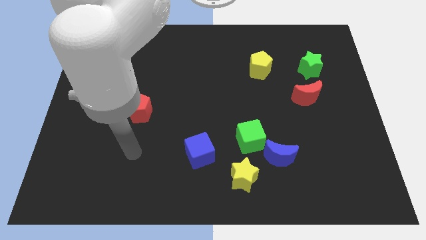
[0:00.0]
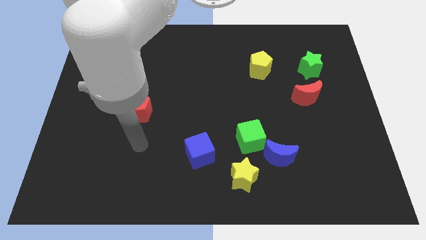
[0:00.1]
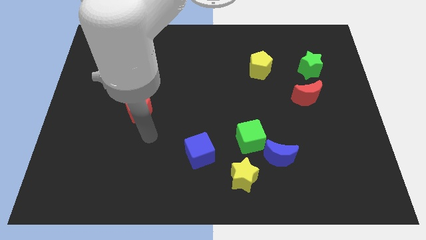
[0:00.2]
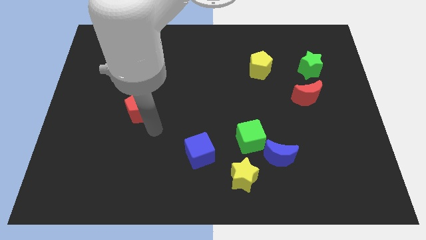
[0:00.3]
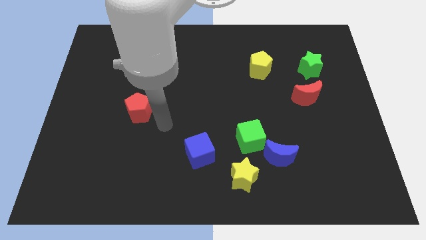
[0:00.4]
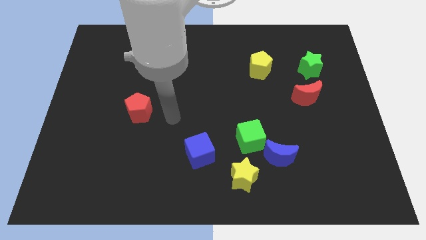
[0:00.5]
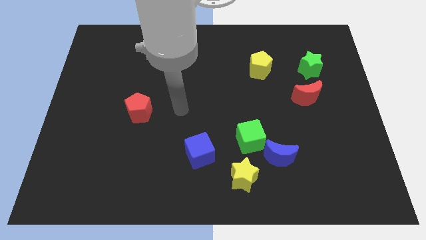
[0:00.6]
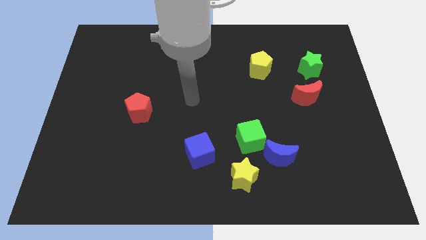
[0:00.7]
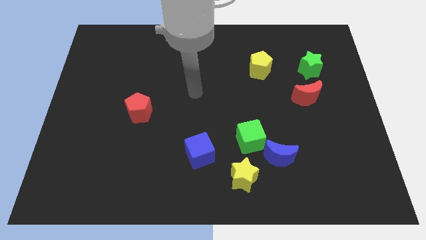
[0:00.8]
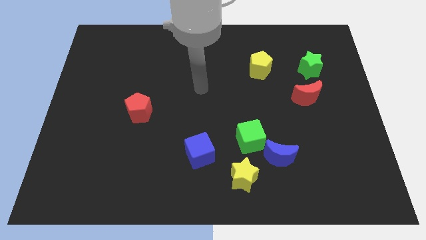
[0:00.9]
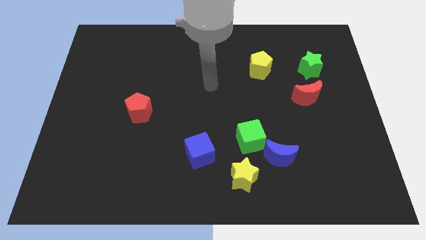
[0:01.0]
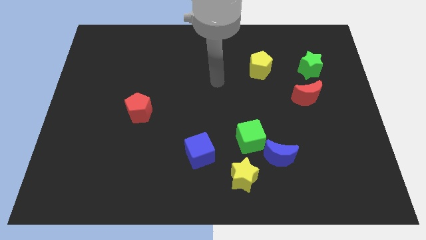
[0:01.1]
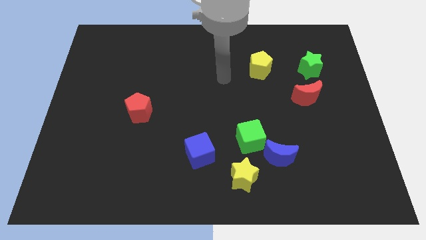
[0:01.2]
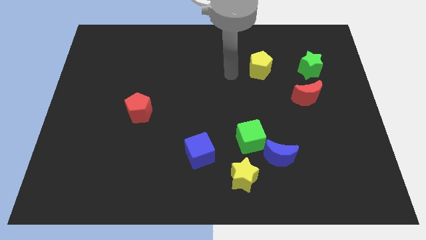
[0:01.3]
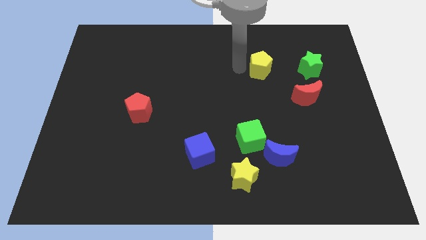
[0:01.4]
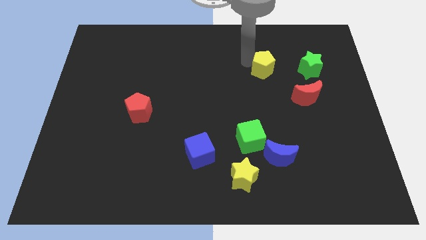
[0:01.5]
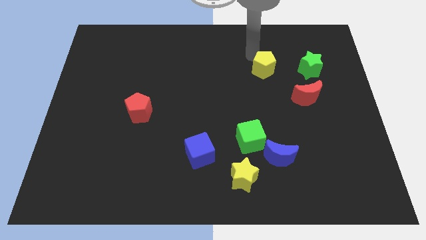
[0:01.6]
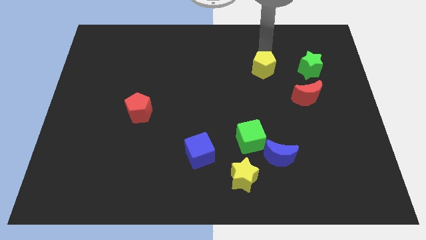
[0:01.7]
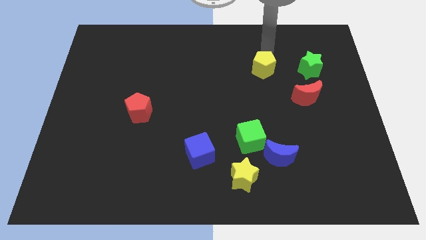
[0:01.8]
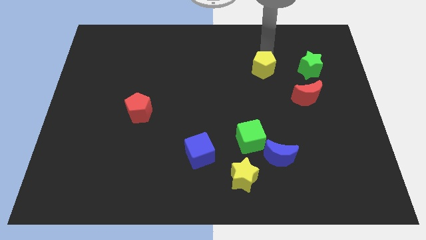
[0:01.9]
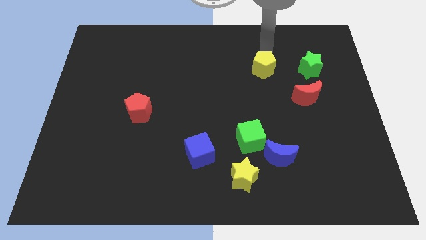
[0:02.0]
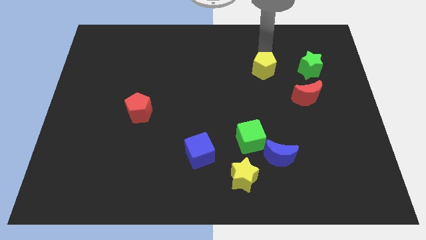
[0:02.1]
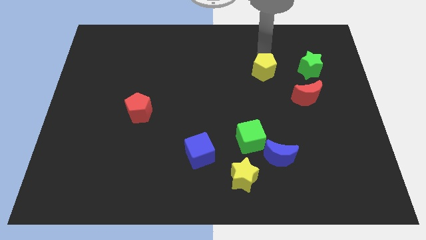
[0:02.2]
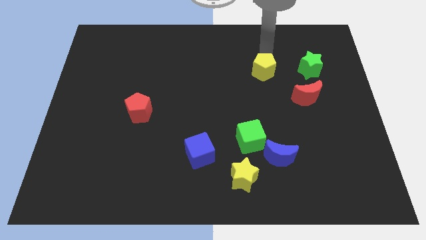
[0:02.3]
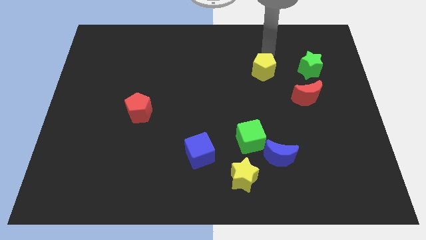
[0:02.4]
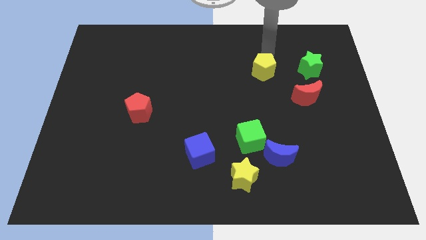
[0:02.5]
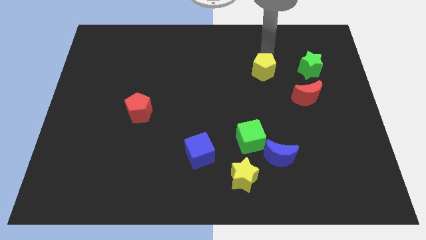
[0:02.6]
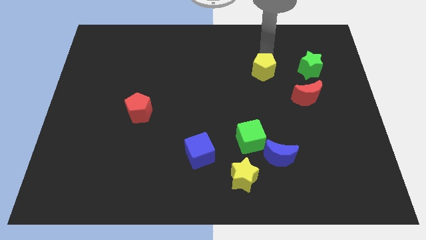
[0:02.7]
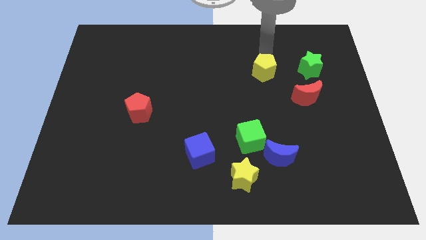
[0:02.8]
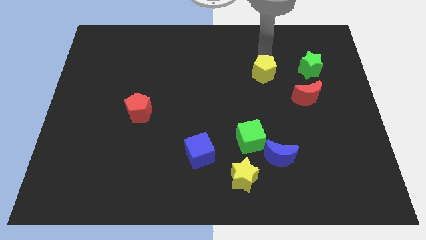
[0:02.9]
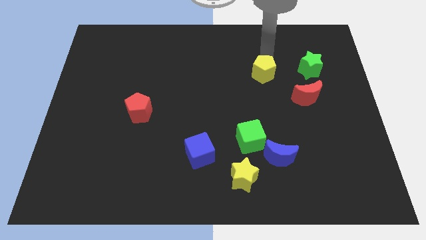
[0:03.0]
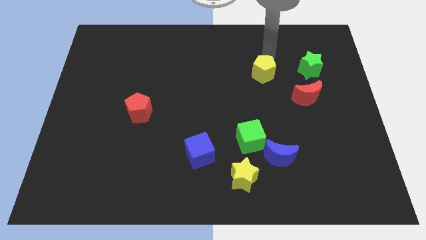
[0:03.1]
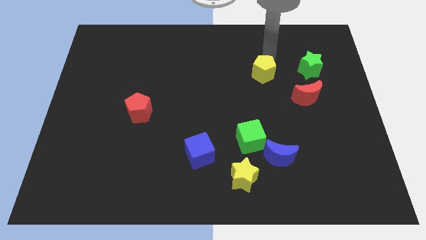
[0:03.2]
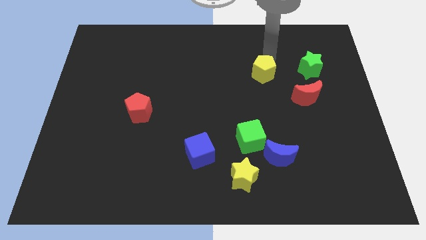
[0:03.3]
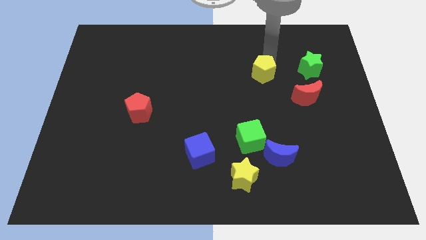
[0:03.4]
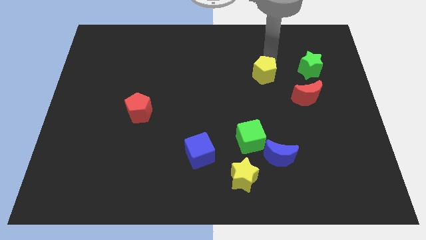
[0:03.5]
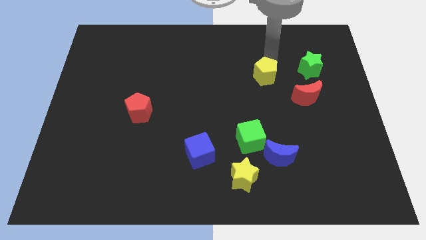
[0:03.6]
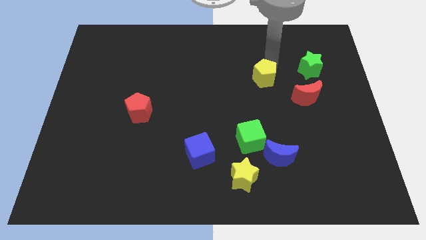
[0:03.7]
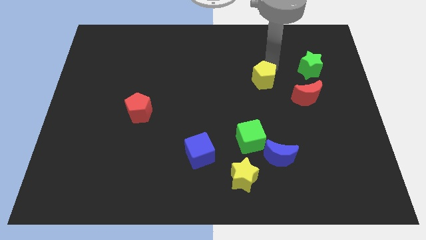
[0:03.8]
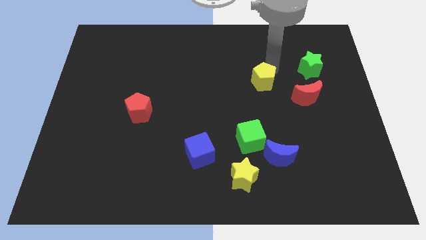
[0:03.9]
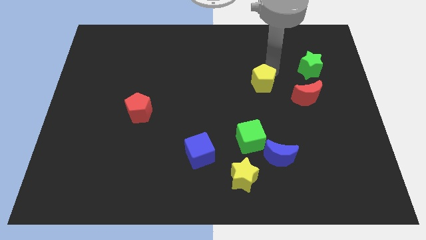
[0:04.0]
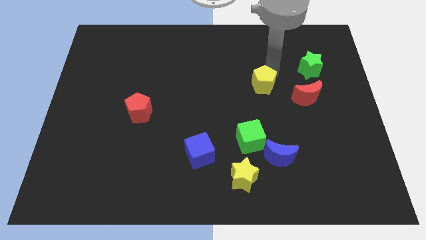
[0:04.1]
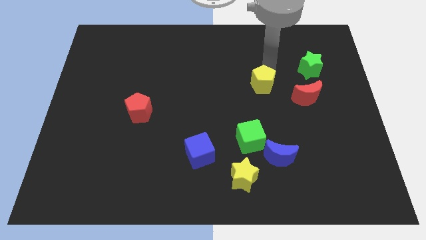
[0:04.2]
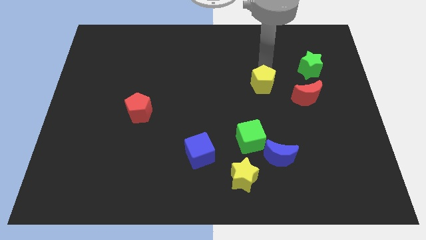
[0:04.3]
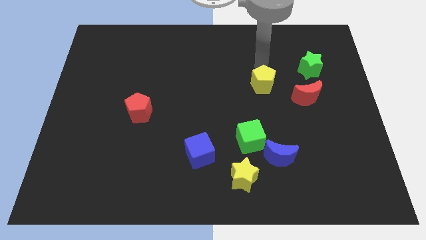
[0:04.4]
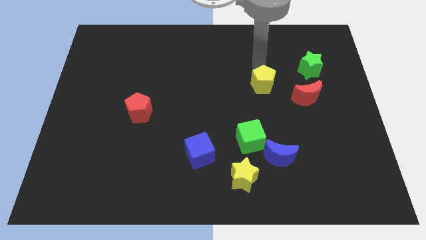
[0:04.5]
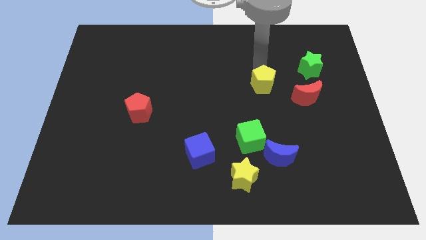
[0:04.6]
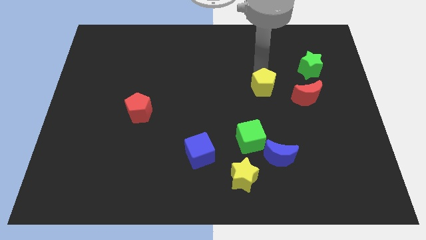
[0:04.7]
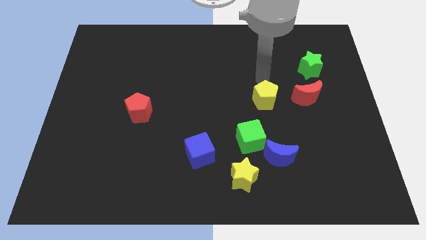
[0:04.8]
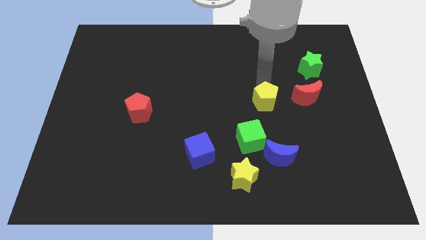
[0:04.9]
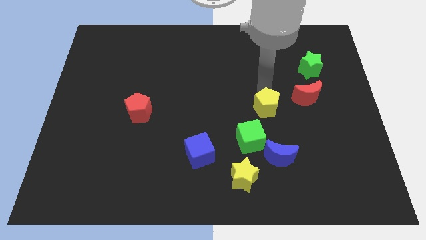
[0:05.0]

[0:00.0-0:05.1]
move the yellow pentagon diagonally up and to the right of the green cube

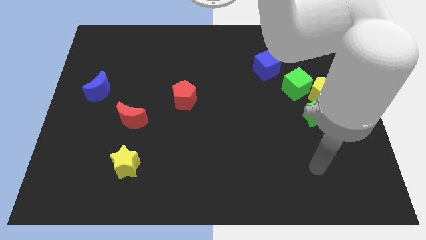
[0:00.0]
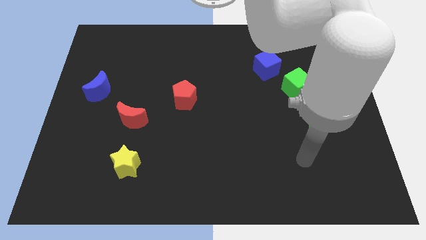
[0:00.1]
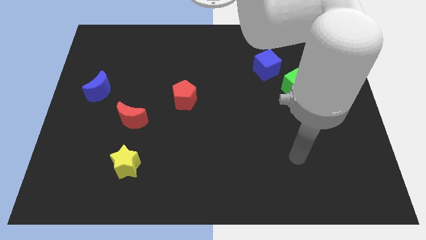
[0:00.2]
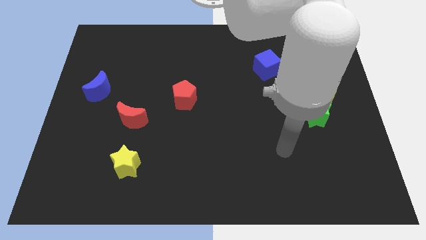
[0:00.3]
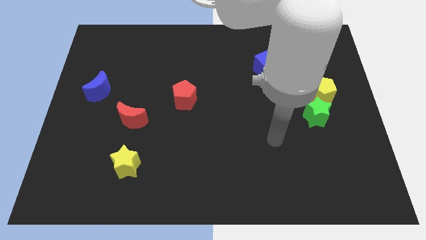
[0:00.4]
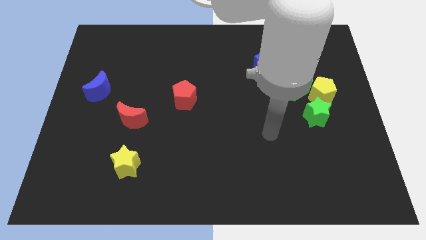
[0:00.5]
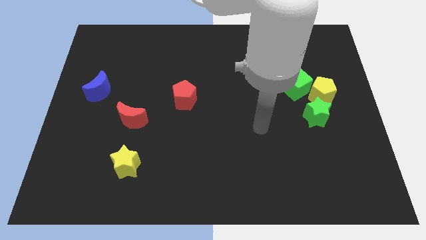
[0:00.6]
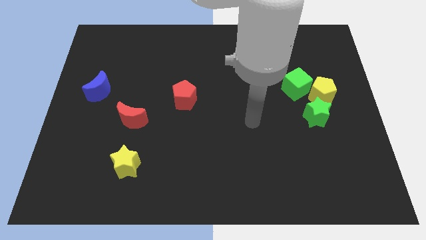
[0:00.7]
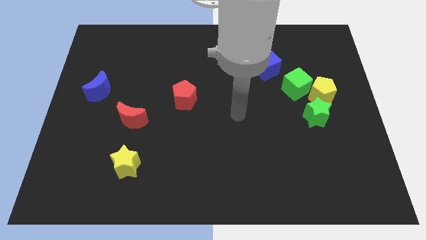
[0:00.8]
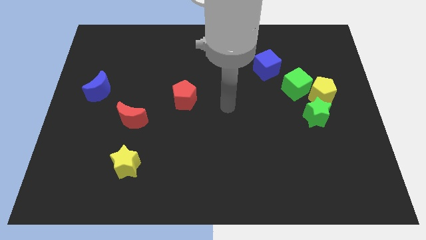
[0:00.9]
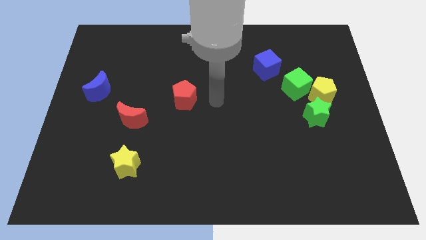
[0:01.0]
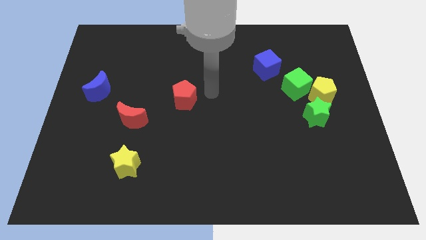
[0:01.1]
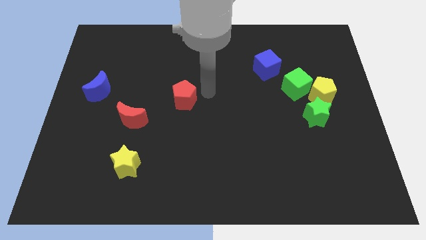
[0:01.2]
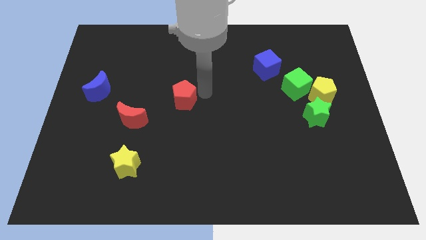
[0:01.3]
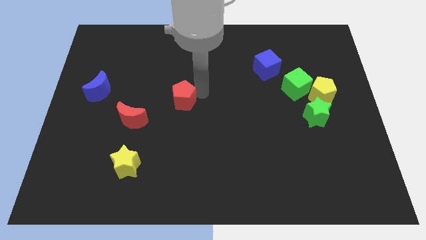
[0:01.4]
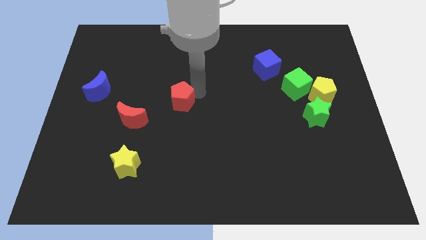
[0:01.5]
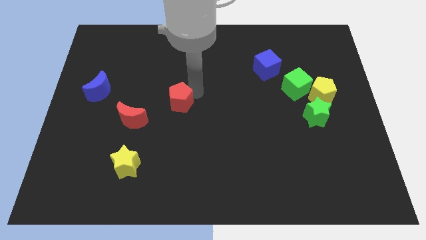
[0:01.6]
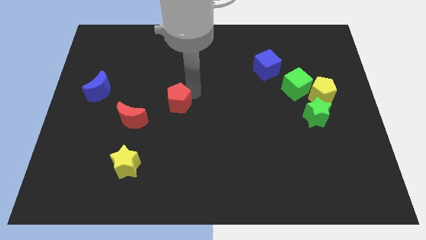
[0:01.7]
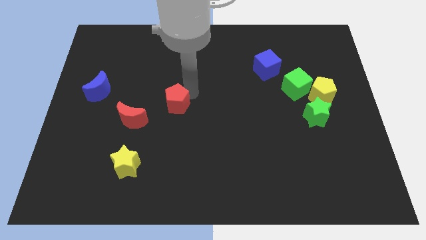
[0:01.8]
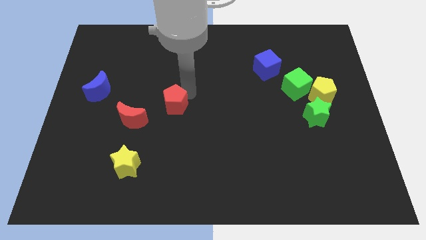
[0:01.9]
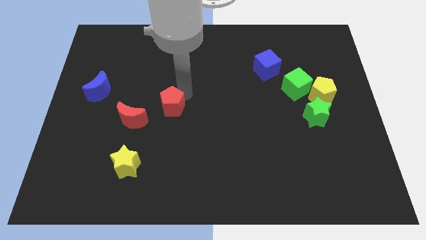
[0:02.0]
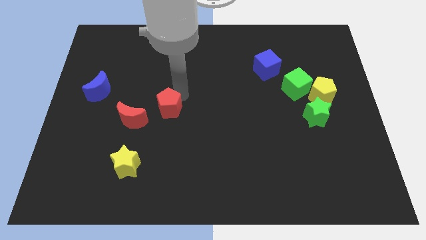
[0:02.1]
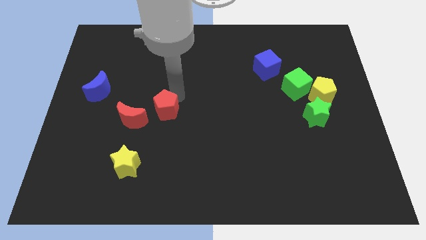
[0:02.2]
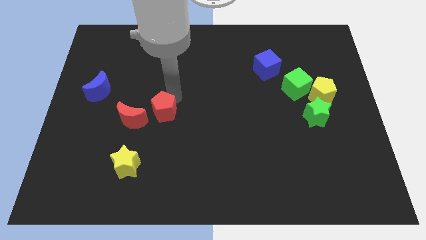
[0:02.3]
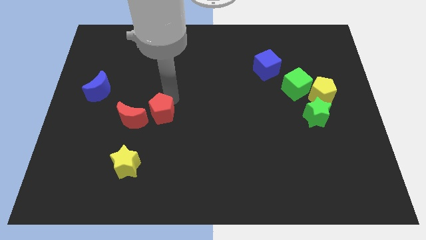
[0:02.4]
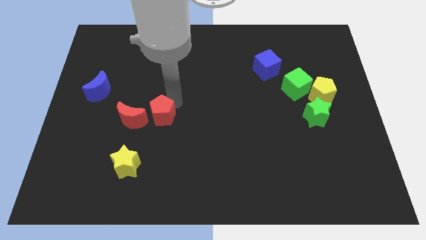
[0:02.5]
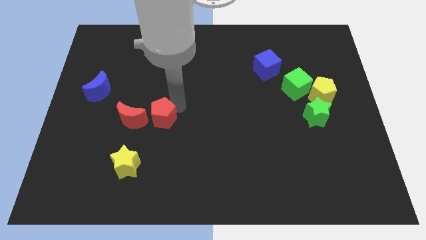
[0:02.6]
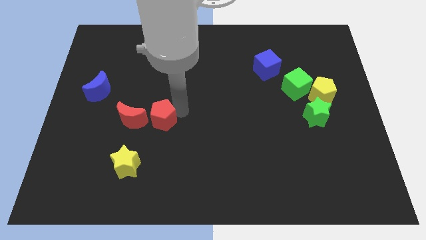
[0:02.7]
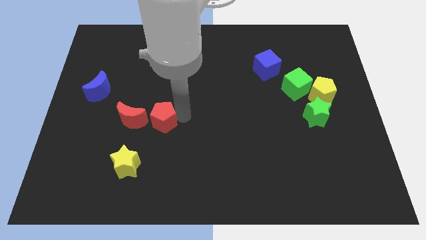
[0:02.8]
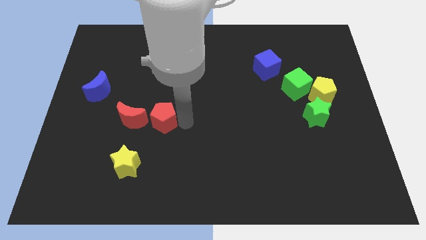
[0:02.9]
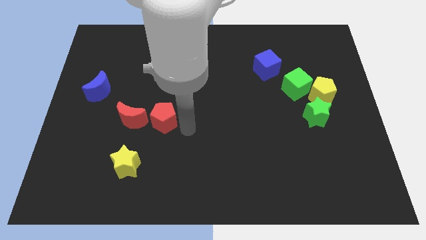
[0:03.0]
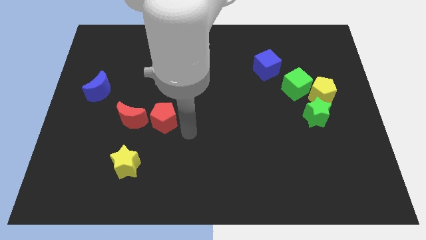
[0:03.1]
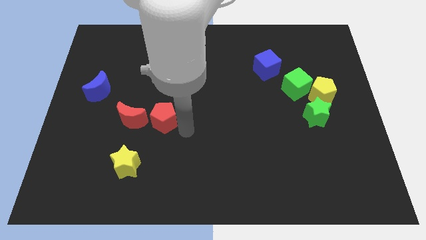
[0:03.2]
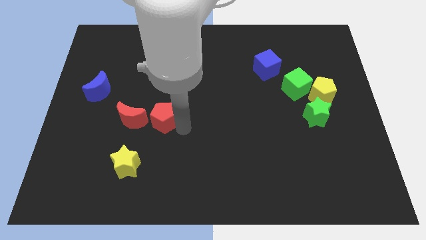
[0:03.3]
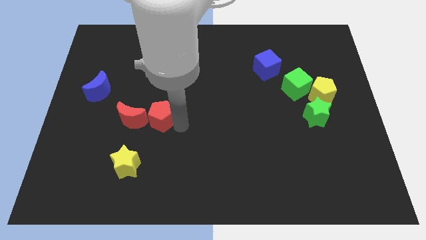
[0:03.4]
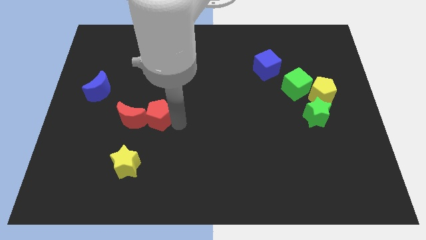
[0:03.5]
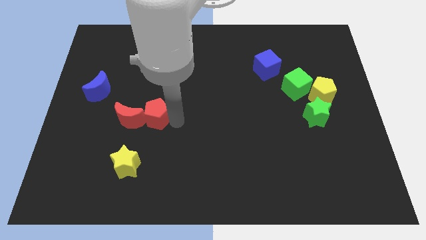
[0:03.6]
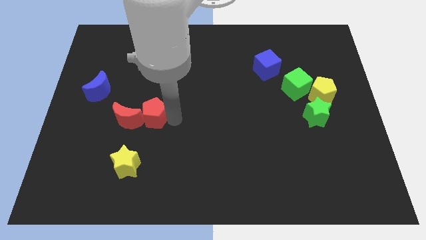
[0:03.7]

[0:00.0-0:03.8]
put the red pentagon to the top of the yellow star
